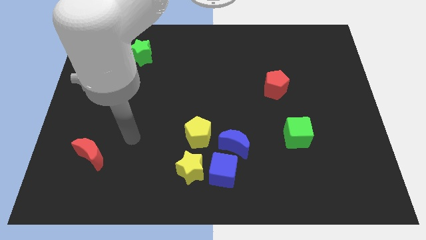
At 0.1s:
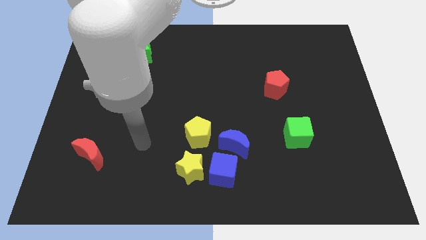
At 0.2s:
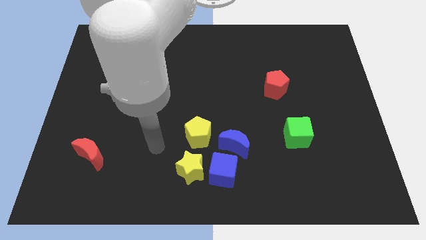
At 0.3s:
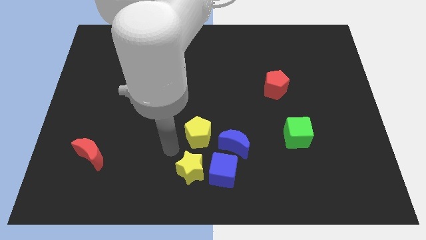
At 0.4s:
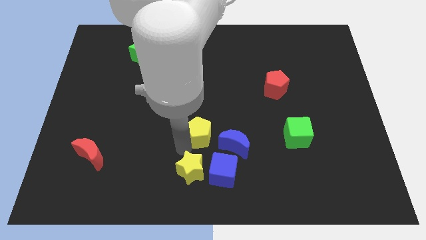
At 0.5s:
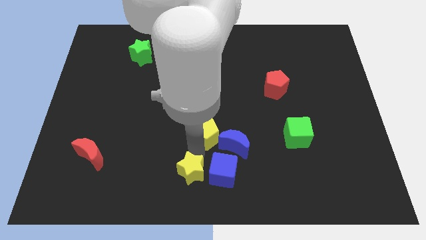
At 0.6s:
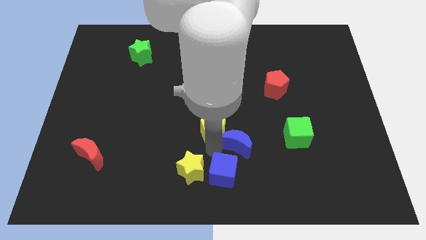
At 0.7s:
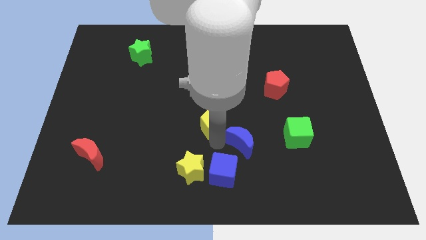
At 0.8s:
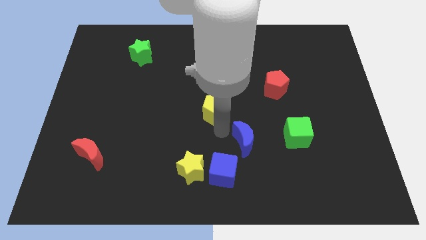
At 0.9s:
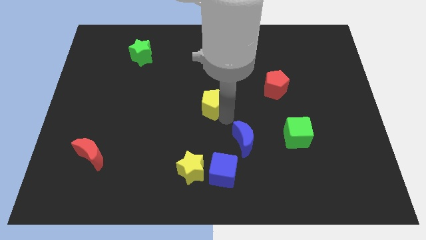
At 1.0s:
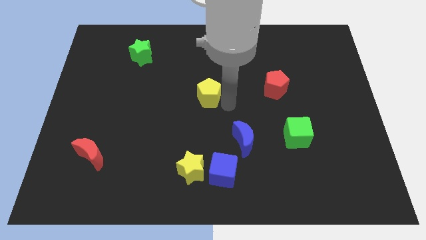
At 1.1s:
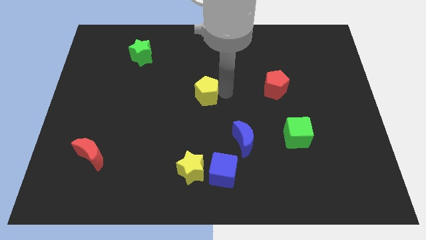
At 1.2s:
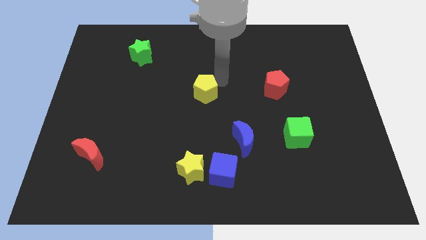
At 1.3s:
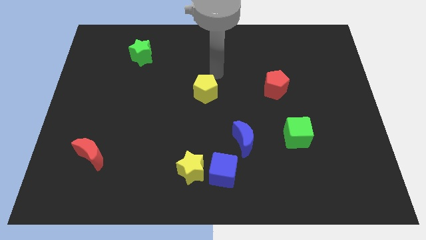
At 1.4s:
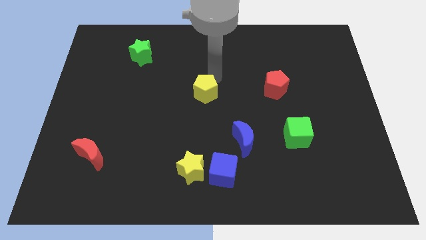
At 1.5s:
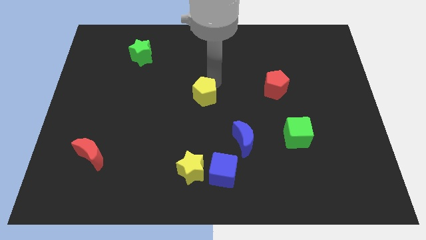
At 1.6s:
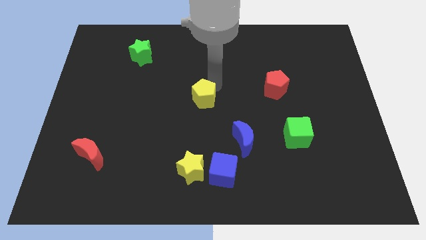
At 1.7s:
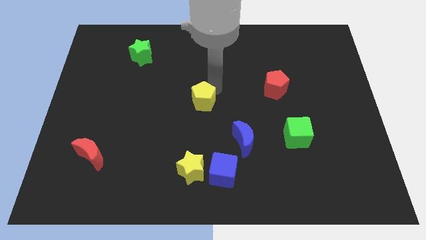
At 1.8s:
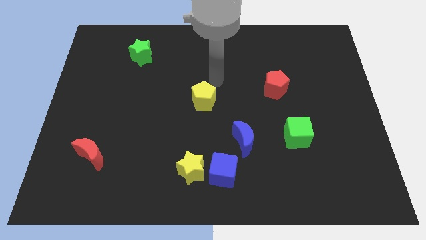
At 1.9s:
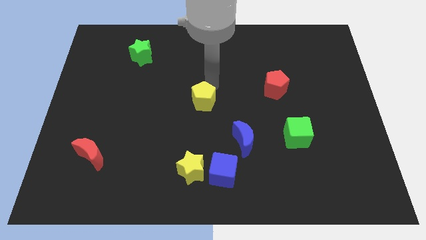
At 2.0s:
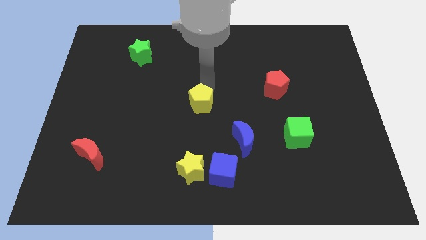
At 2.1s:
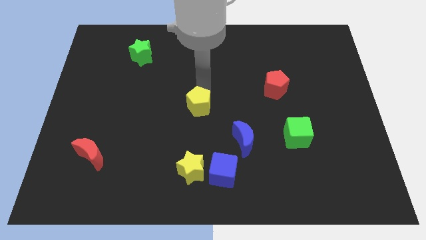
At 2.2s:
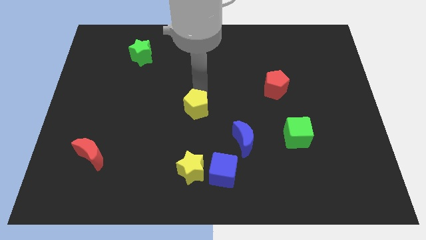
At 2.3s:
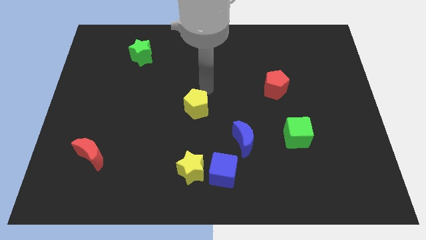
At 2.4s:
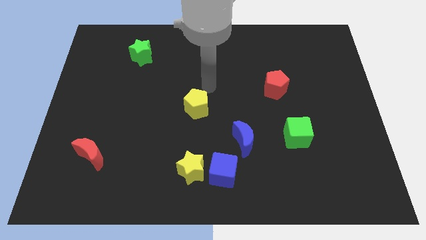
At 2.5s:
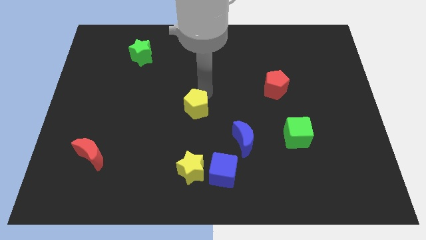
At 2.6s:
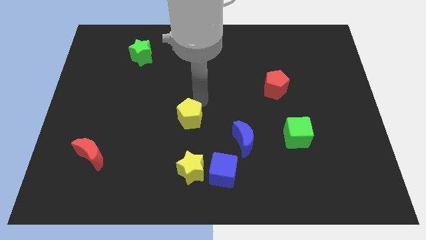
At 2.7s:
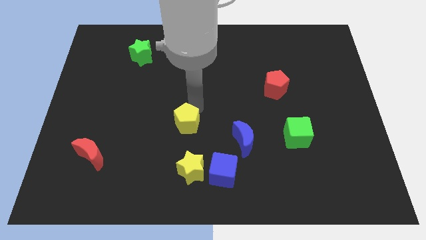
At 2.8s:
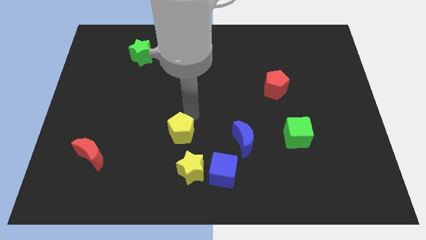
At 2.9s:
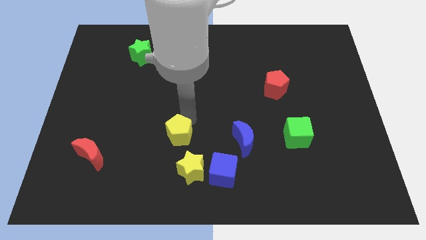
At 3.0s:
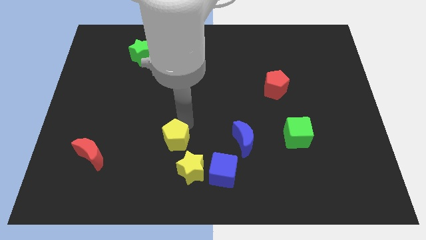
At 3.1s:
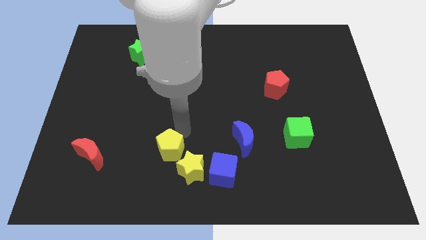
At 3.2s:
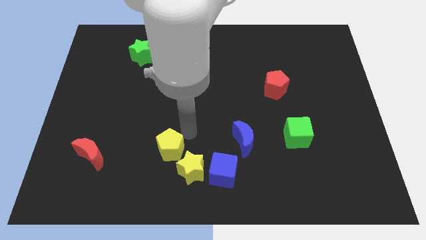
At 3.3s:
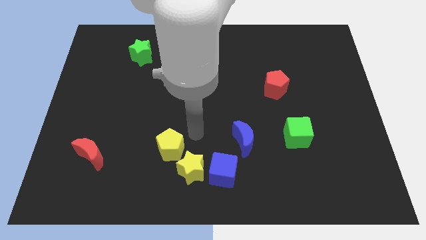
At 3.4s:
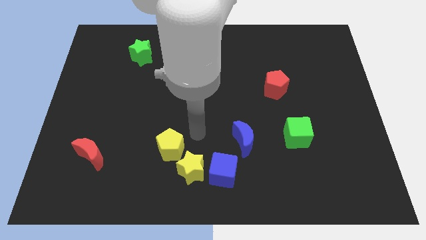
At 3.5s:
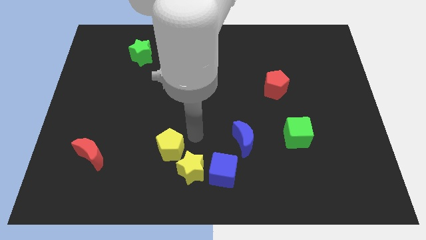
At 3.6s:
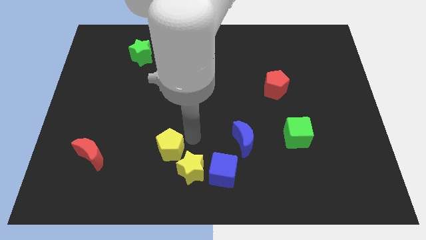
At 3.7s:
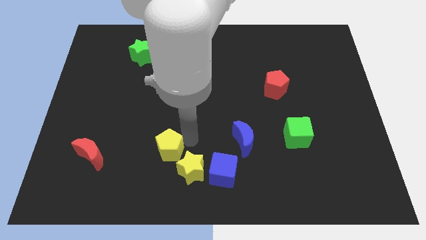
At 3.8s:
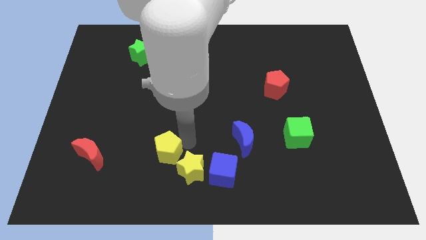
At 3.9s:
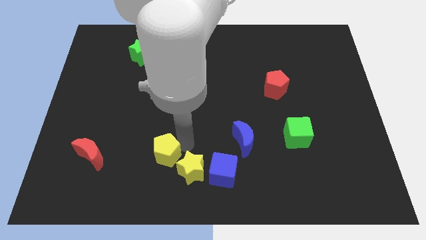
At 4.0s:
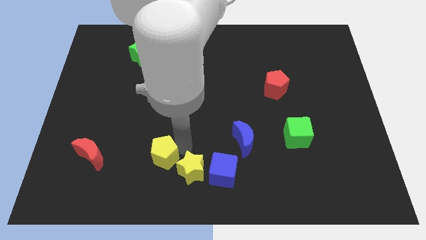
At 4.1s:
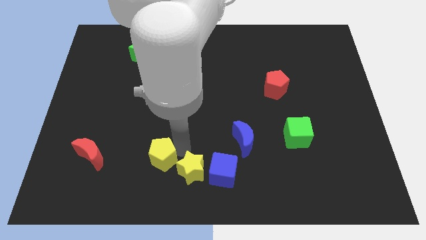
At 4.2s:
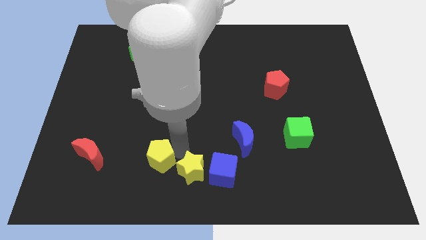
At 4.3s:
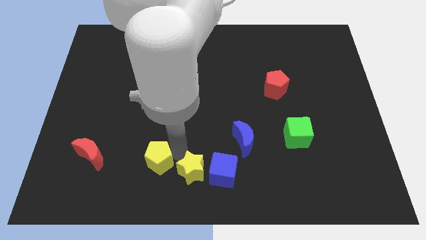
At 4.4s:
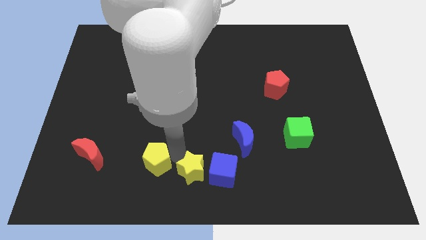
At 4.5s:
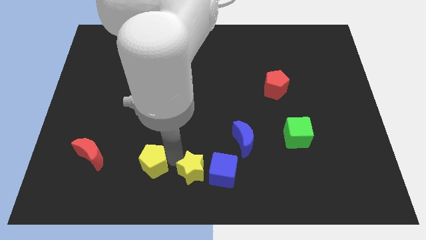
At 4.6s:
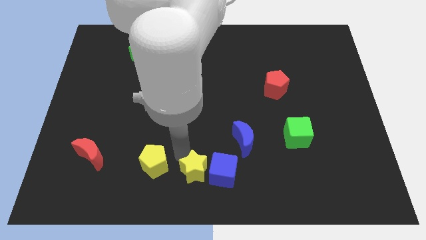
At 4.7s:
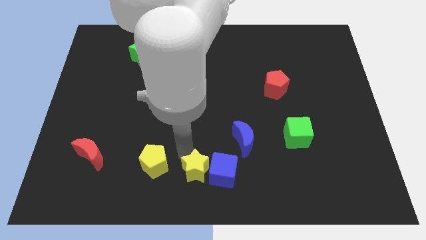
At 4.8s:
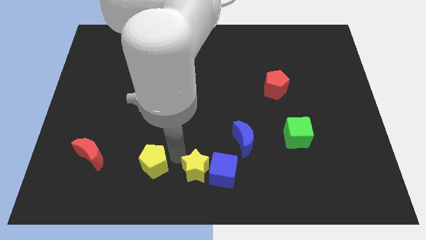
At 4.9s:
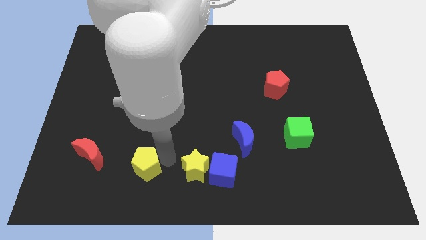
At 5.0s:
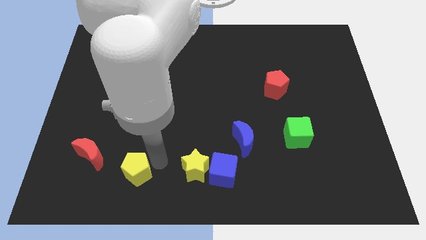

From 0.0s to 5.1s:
move the yellow pentagon diagonally down and to the right of the red moon

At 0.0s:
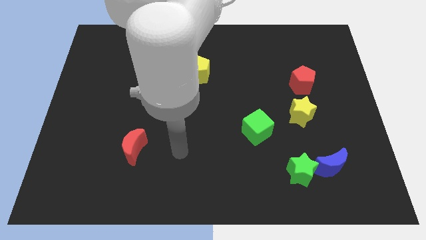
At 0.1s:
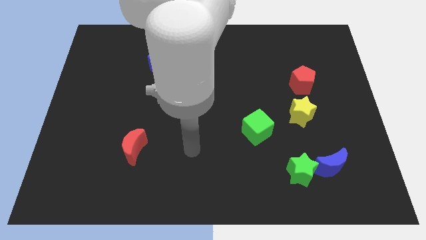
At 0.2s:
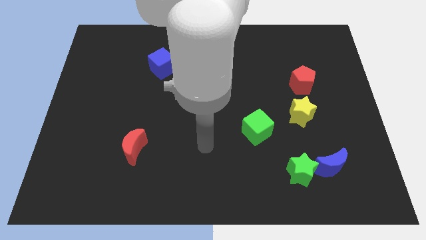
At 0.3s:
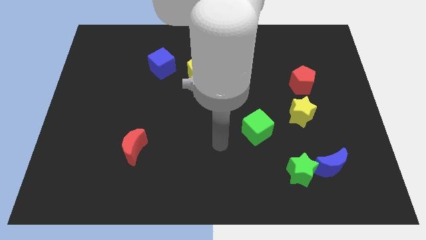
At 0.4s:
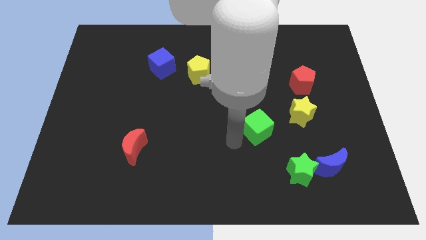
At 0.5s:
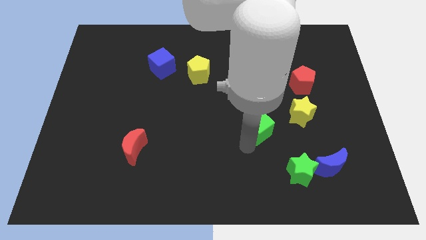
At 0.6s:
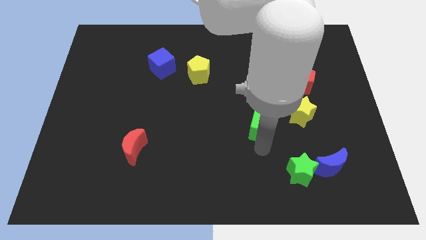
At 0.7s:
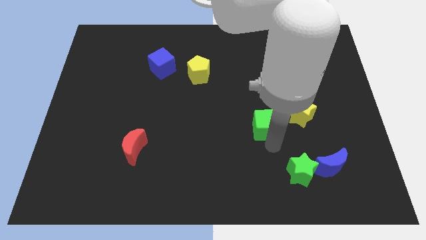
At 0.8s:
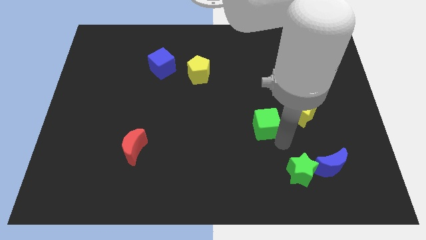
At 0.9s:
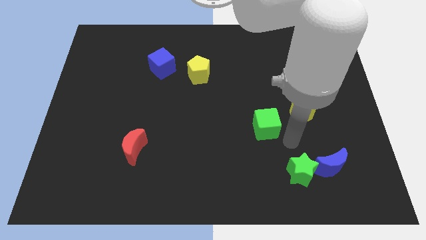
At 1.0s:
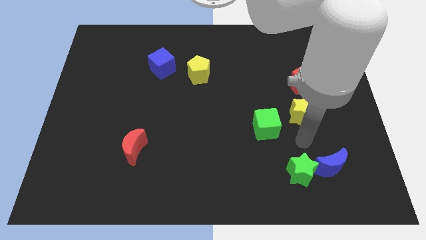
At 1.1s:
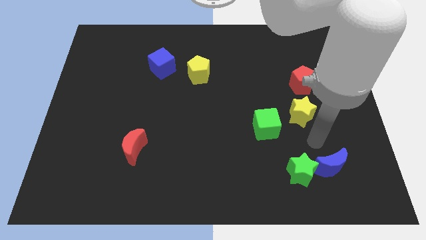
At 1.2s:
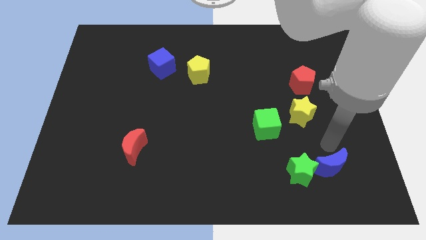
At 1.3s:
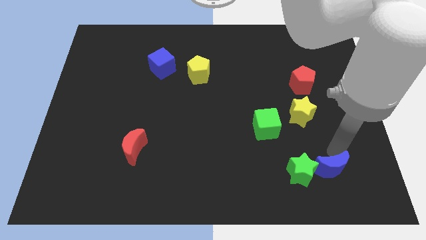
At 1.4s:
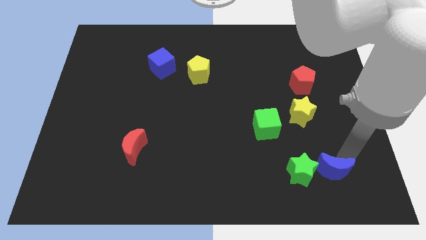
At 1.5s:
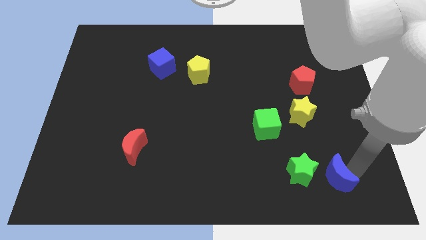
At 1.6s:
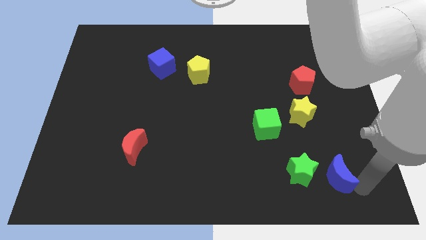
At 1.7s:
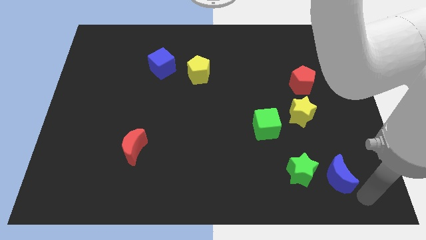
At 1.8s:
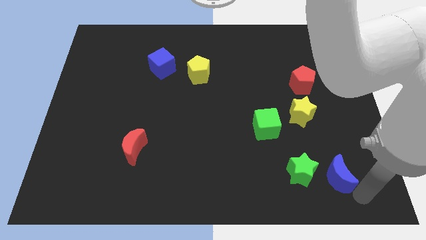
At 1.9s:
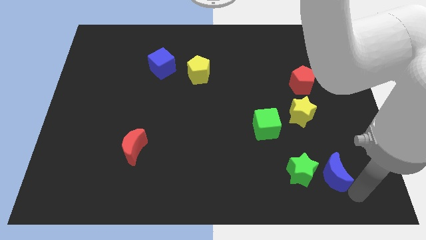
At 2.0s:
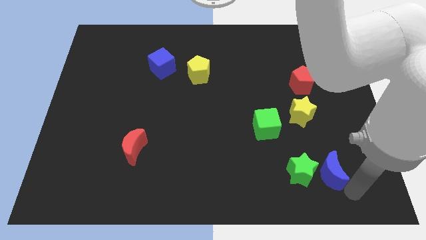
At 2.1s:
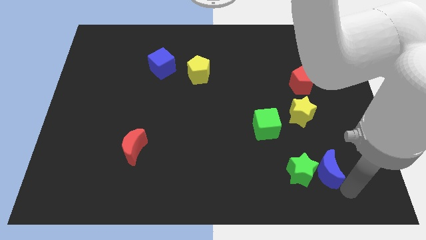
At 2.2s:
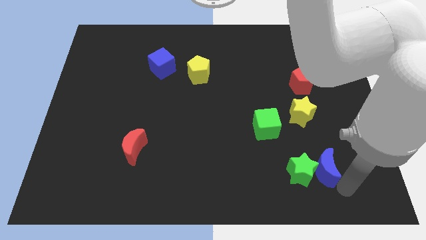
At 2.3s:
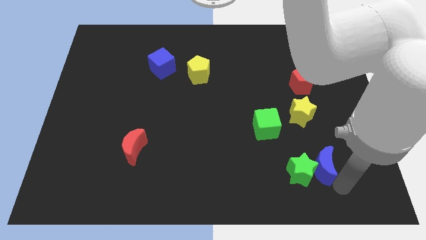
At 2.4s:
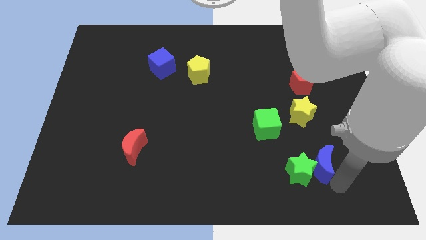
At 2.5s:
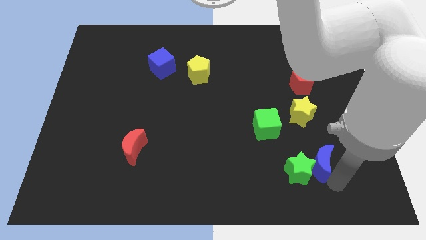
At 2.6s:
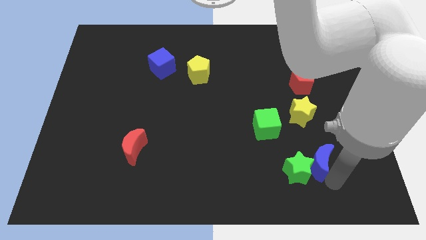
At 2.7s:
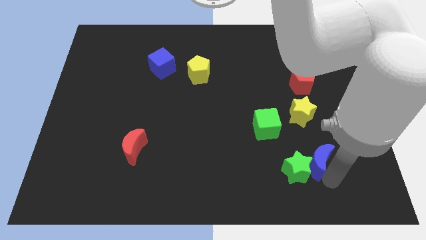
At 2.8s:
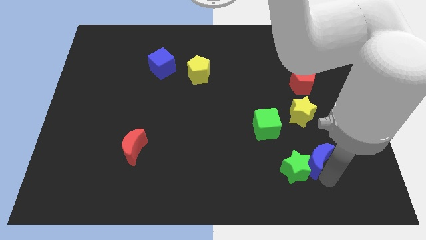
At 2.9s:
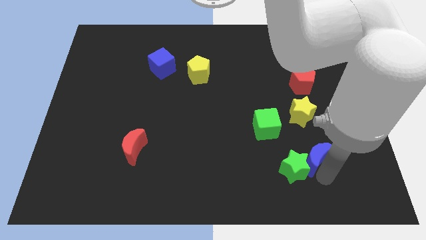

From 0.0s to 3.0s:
put the blue moon to the bottom right side of the green cube

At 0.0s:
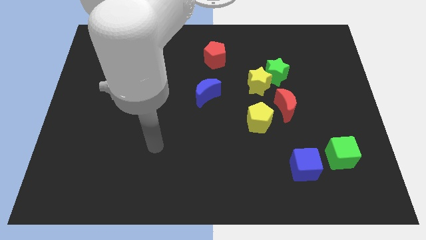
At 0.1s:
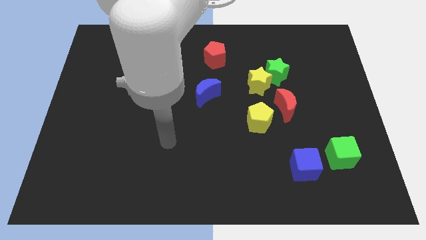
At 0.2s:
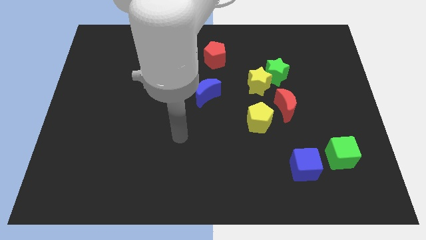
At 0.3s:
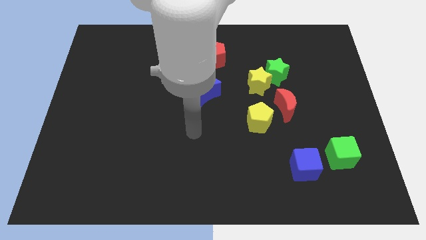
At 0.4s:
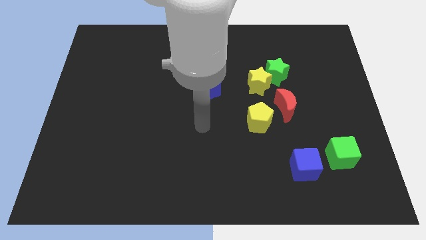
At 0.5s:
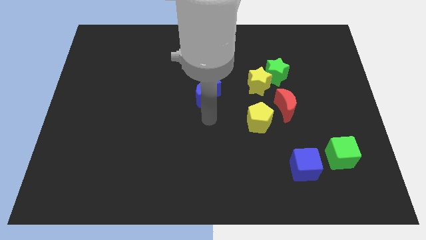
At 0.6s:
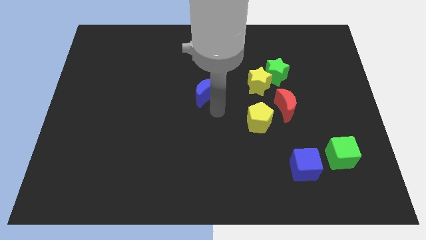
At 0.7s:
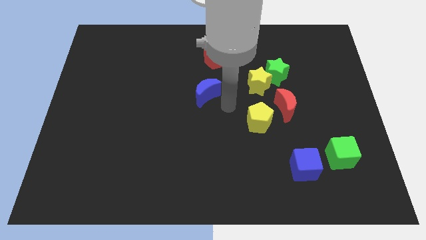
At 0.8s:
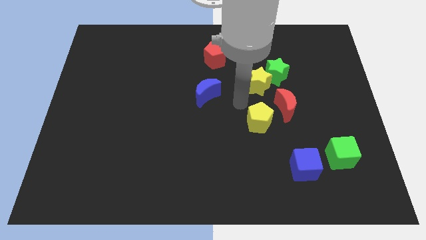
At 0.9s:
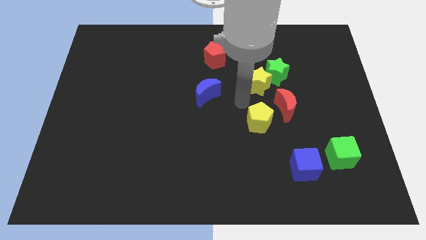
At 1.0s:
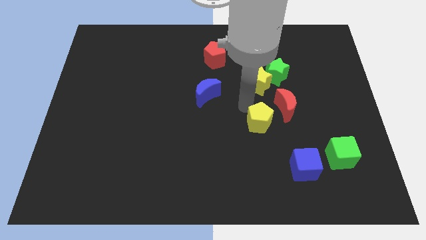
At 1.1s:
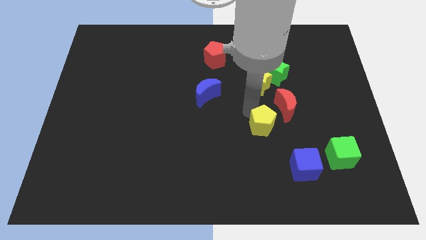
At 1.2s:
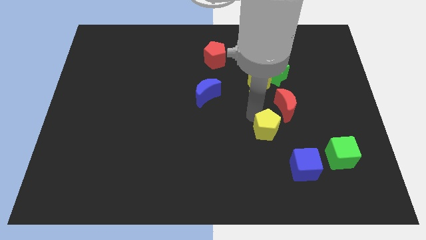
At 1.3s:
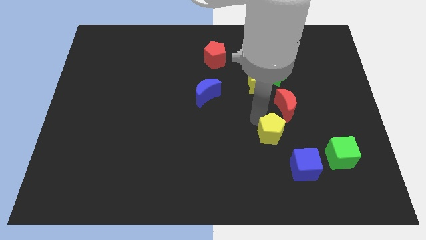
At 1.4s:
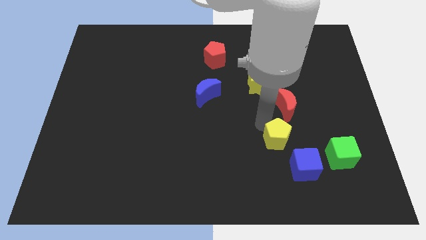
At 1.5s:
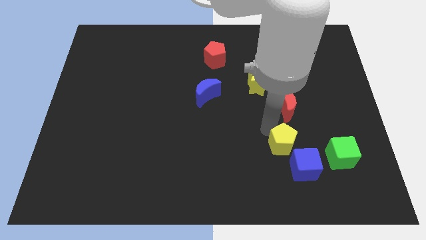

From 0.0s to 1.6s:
move the yellow pentagon to the left side of the green cube
